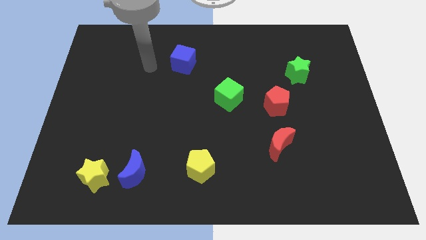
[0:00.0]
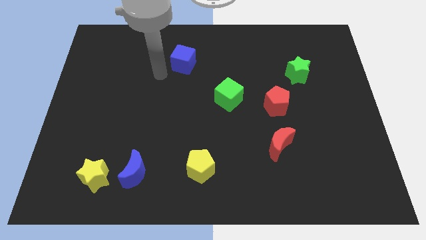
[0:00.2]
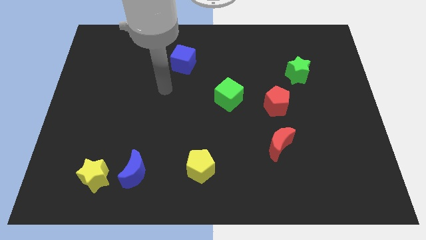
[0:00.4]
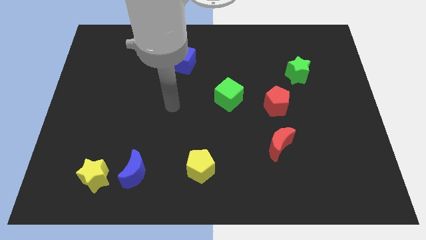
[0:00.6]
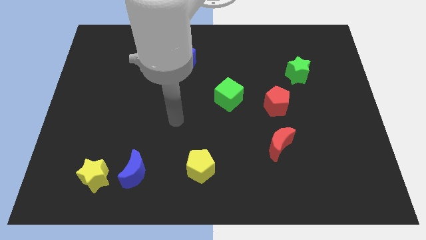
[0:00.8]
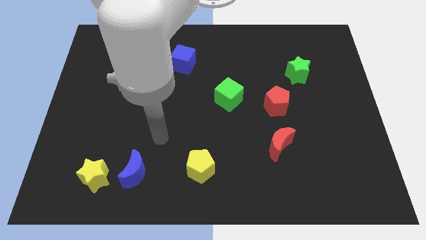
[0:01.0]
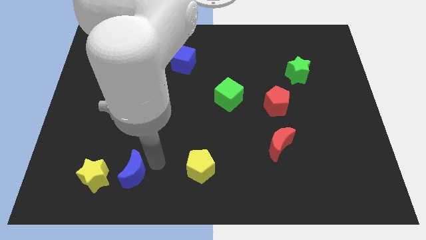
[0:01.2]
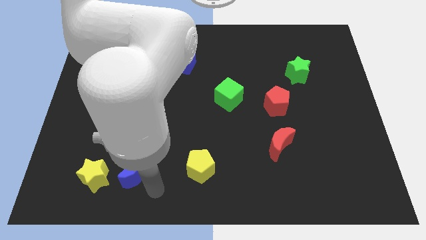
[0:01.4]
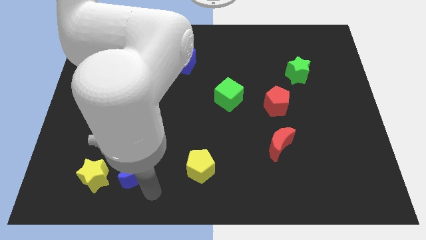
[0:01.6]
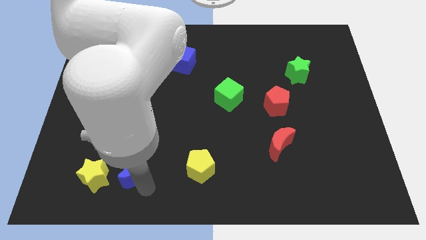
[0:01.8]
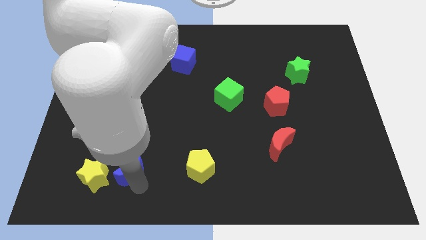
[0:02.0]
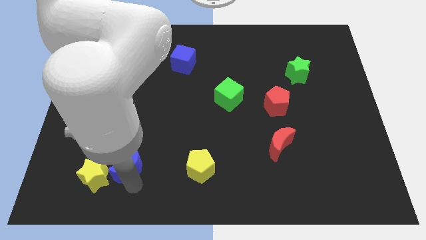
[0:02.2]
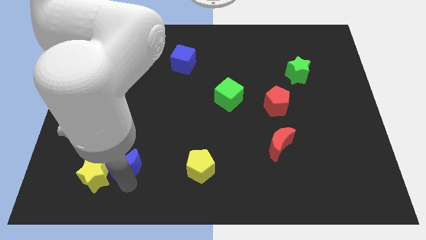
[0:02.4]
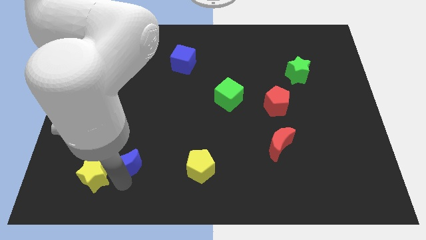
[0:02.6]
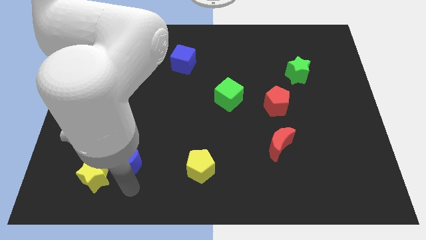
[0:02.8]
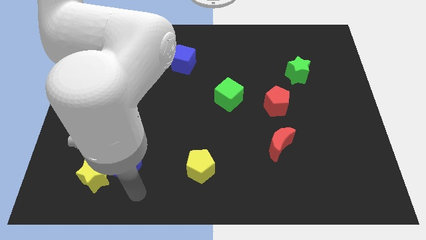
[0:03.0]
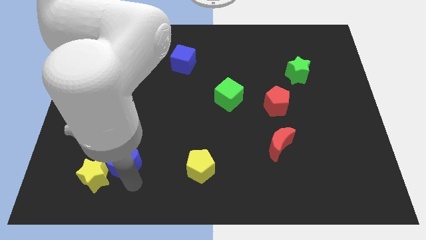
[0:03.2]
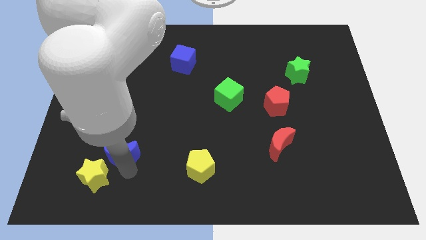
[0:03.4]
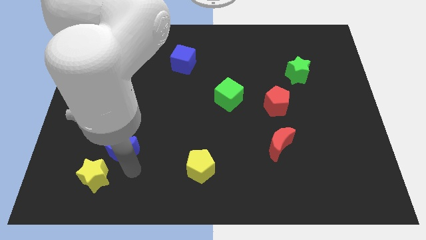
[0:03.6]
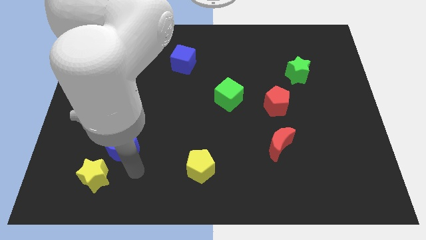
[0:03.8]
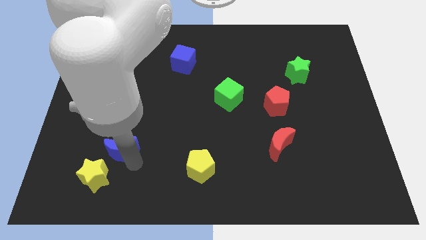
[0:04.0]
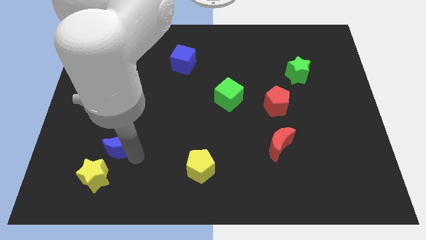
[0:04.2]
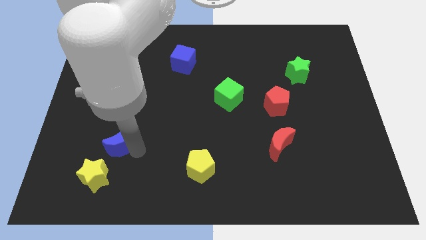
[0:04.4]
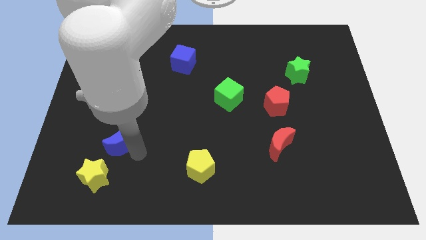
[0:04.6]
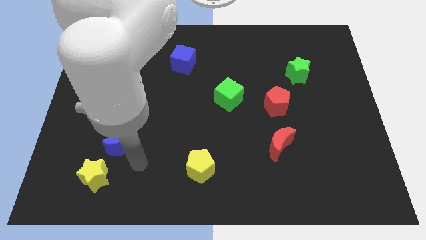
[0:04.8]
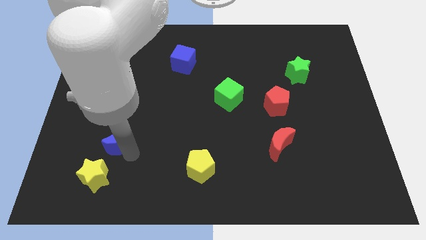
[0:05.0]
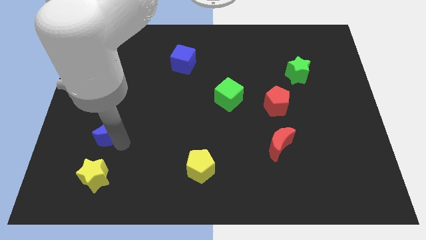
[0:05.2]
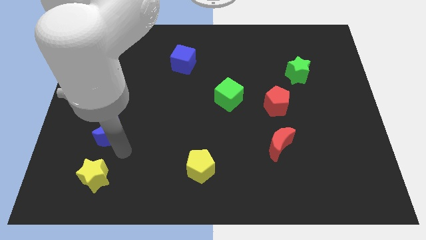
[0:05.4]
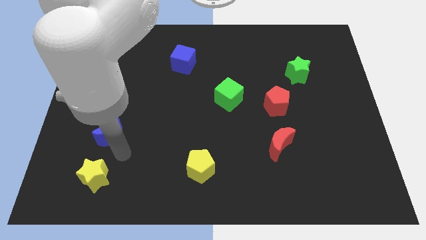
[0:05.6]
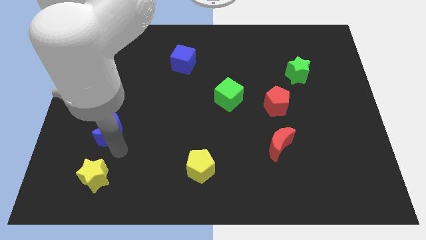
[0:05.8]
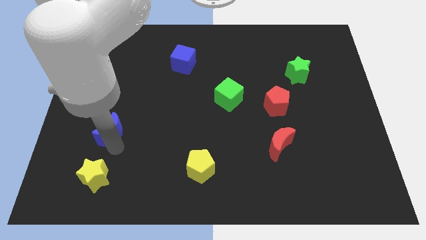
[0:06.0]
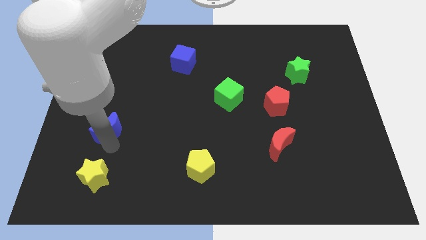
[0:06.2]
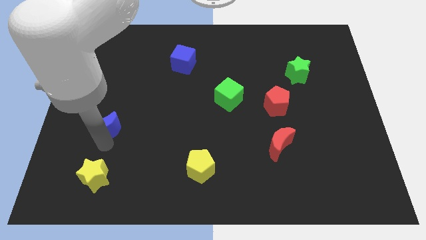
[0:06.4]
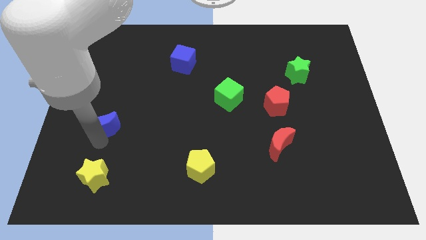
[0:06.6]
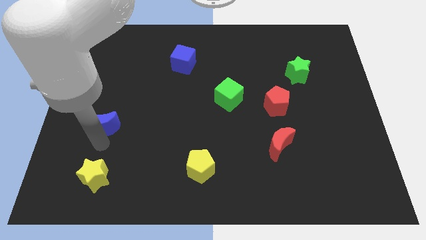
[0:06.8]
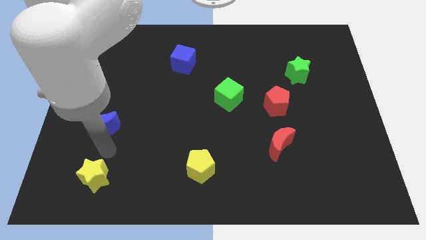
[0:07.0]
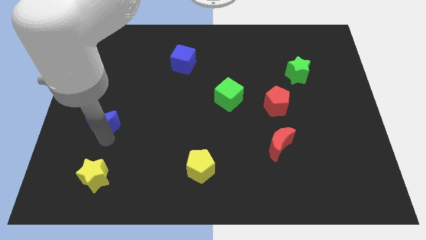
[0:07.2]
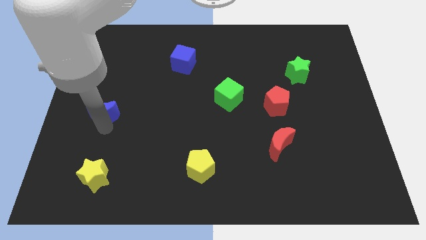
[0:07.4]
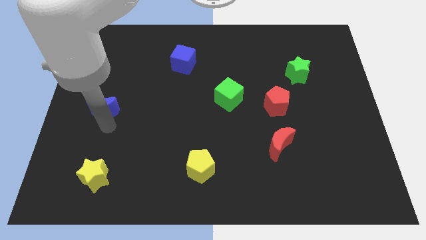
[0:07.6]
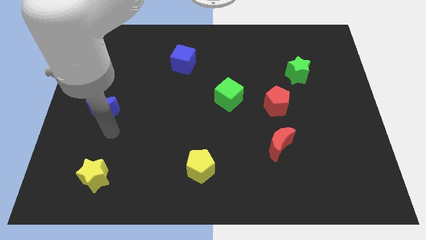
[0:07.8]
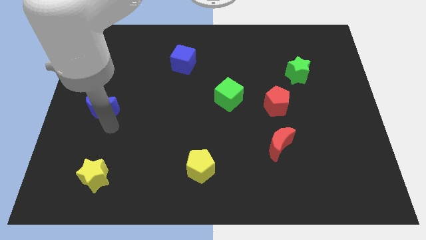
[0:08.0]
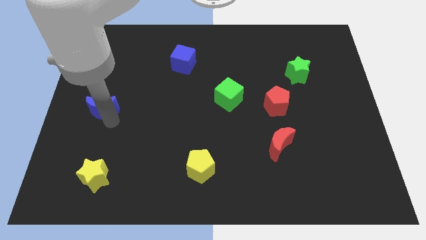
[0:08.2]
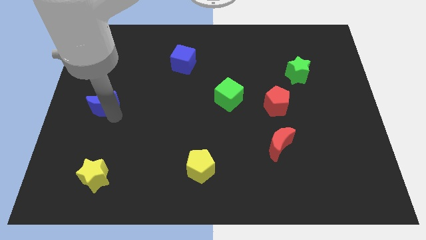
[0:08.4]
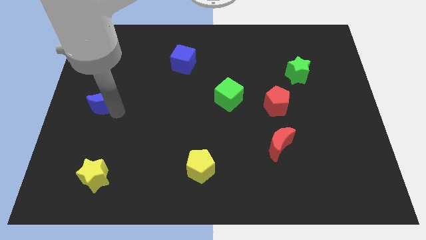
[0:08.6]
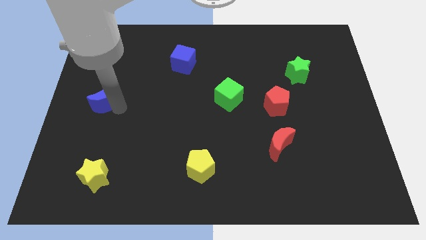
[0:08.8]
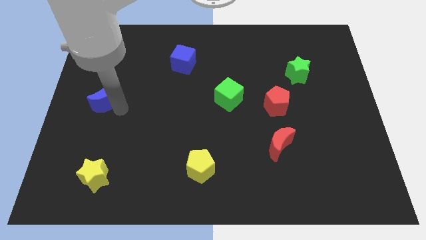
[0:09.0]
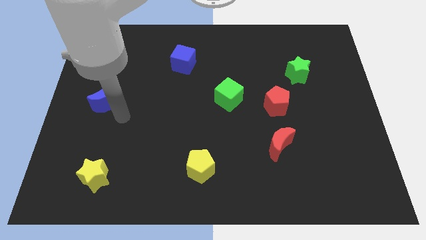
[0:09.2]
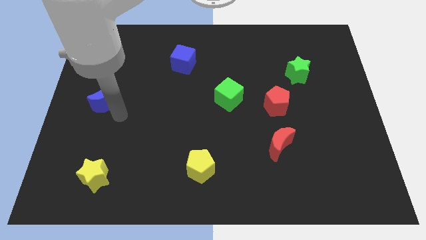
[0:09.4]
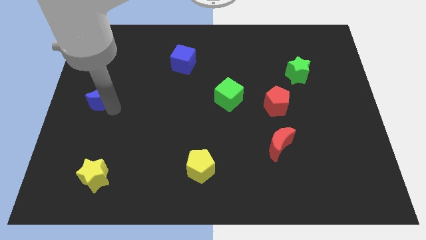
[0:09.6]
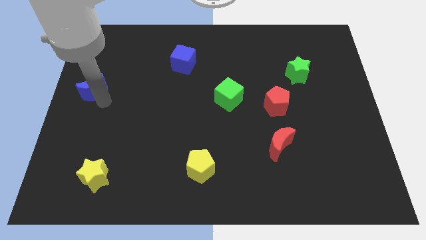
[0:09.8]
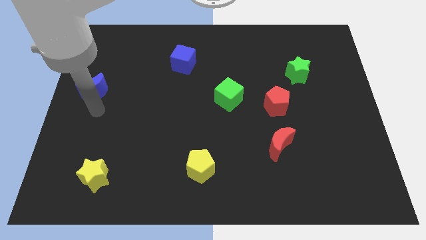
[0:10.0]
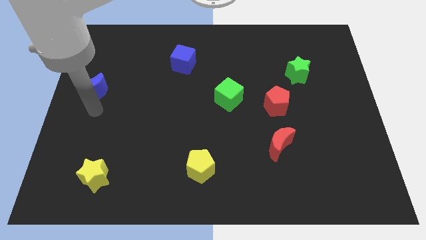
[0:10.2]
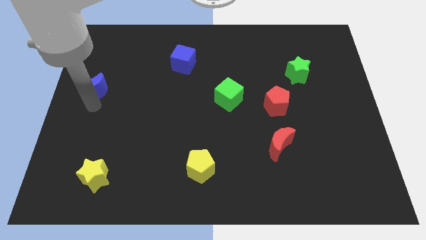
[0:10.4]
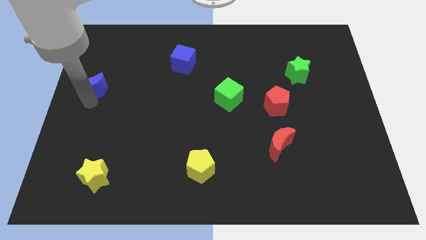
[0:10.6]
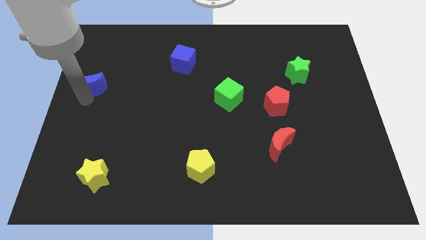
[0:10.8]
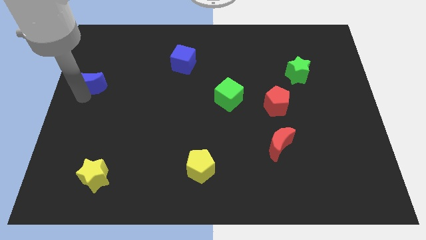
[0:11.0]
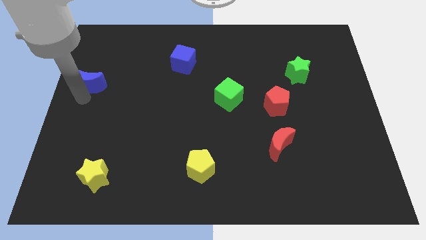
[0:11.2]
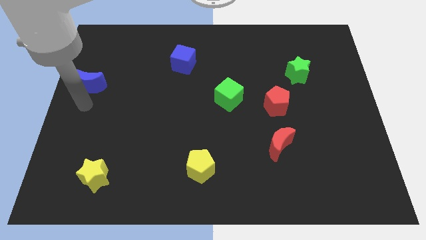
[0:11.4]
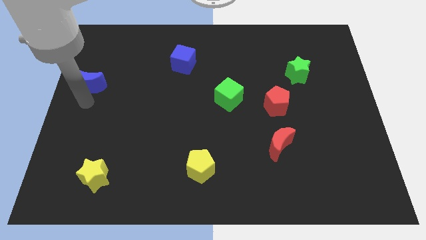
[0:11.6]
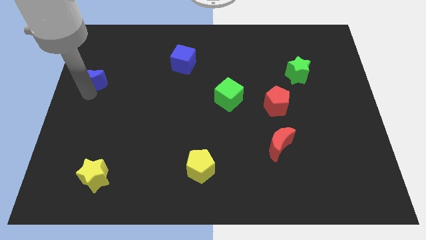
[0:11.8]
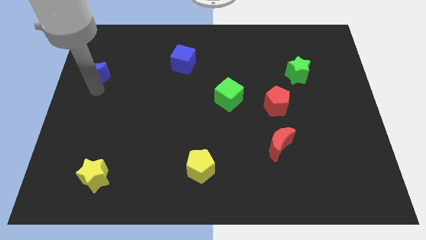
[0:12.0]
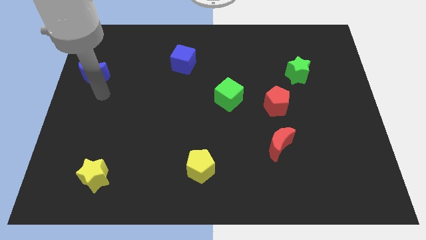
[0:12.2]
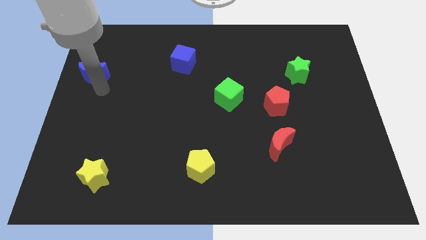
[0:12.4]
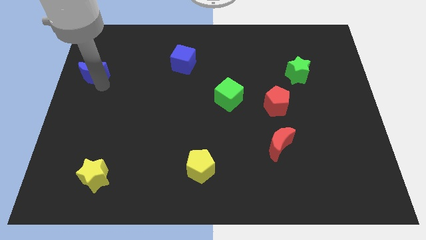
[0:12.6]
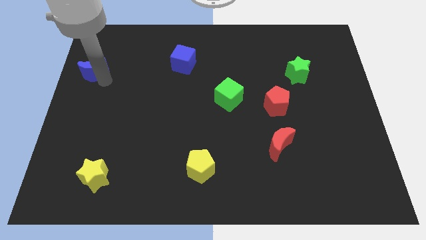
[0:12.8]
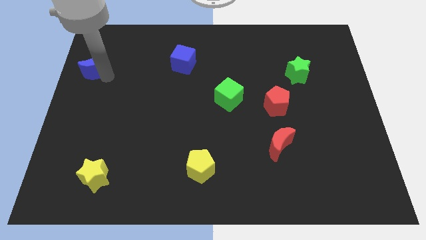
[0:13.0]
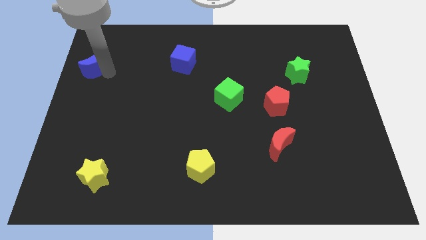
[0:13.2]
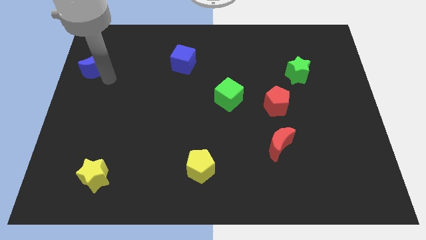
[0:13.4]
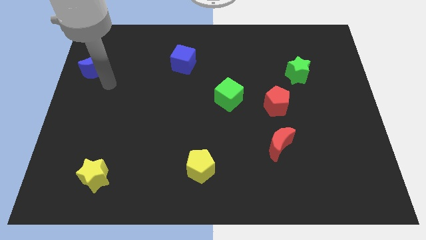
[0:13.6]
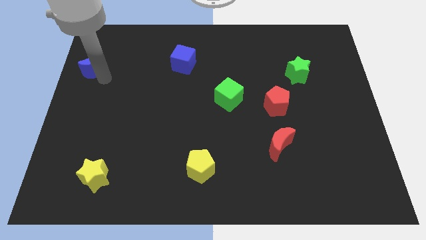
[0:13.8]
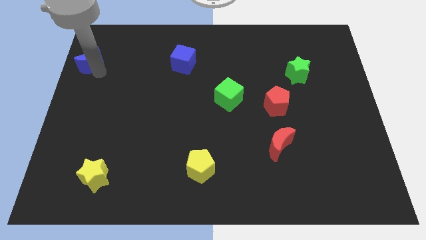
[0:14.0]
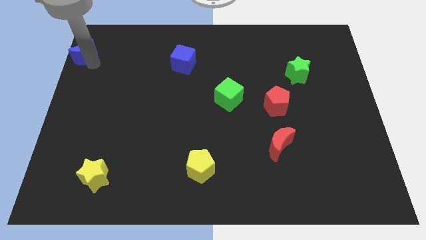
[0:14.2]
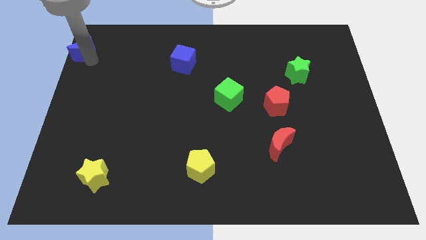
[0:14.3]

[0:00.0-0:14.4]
put the blue moon to the top left of the board
